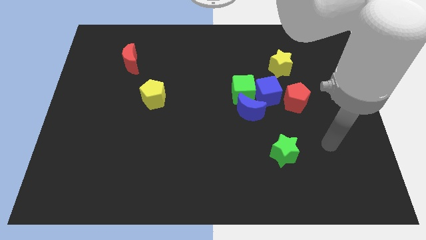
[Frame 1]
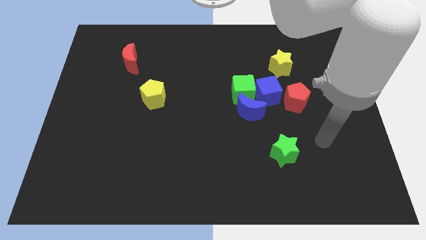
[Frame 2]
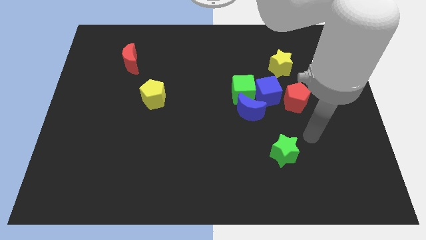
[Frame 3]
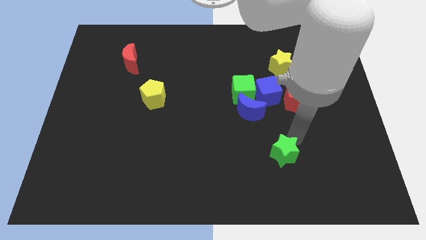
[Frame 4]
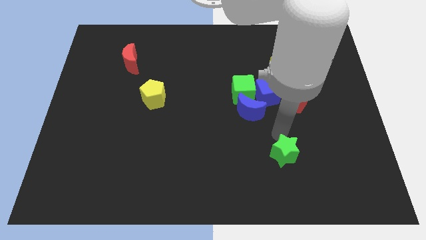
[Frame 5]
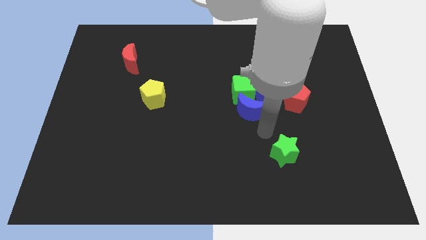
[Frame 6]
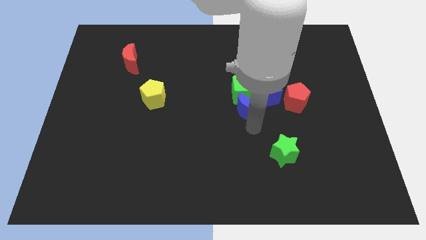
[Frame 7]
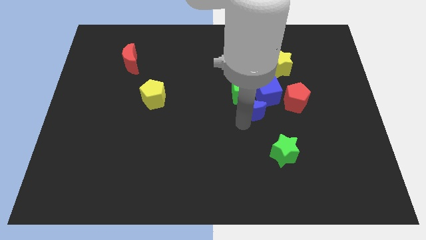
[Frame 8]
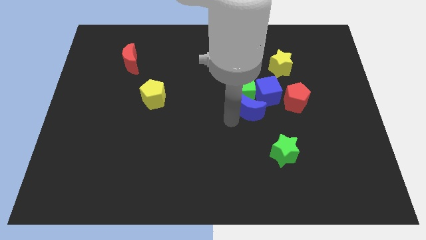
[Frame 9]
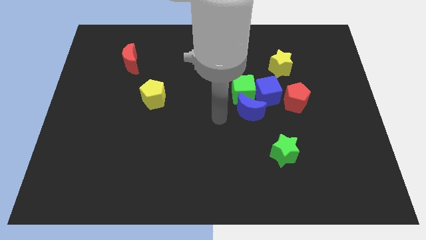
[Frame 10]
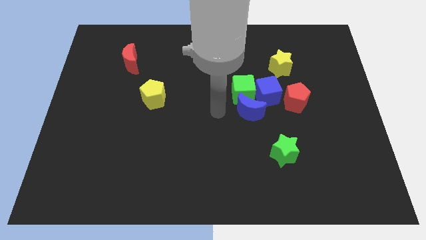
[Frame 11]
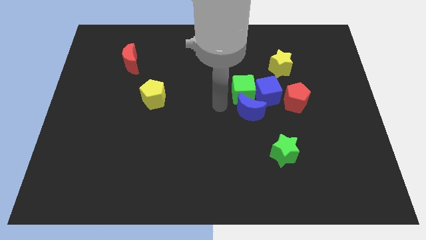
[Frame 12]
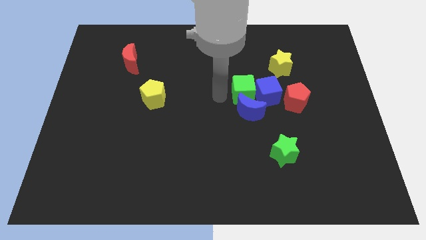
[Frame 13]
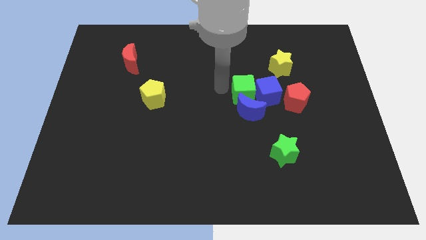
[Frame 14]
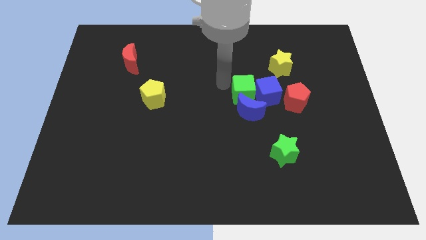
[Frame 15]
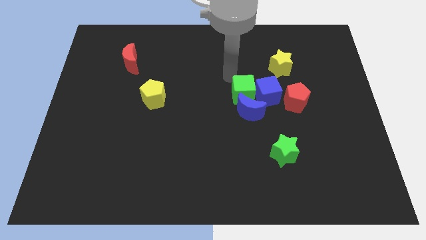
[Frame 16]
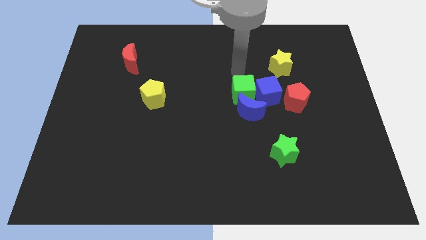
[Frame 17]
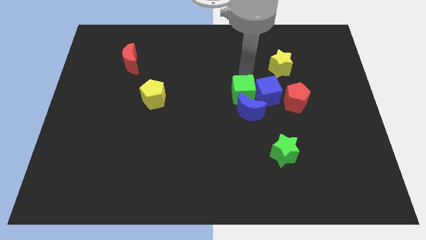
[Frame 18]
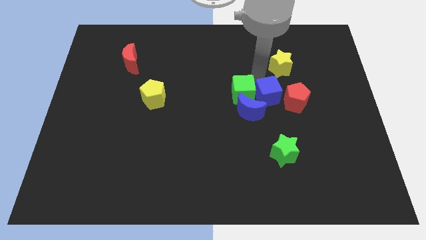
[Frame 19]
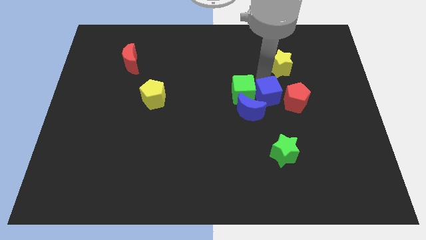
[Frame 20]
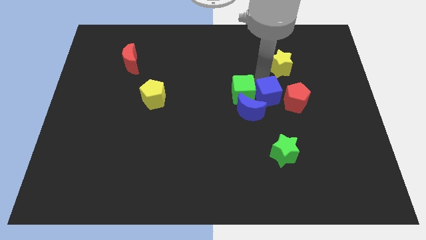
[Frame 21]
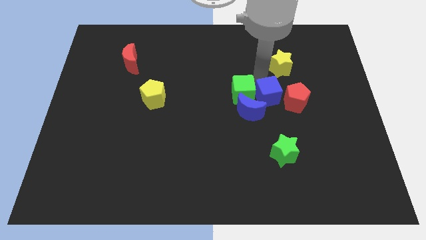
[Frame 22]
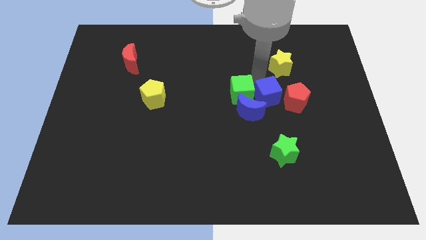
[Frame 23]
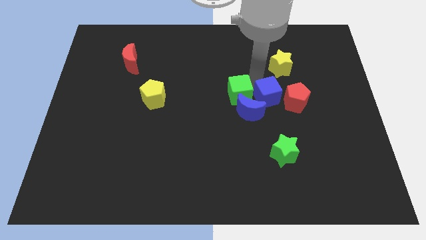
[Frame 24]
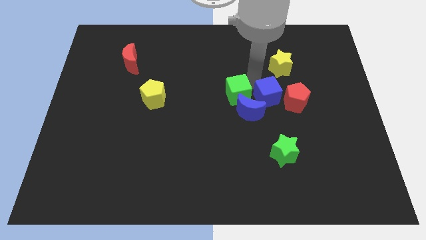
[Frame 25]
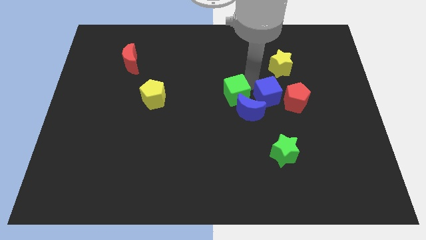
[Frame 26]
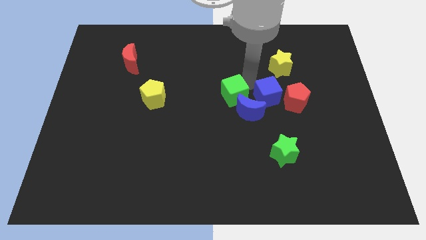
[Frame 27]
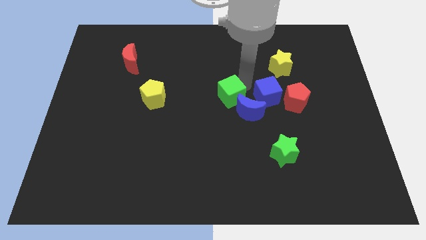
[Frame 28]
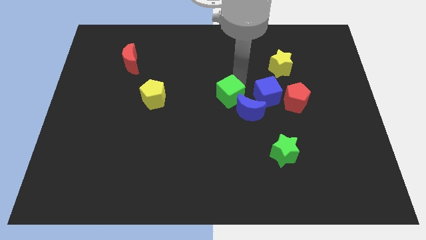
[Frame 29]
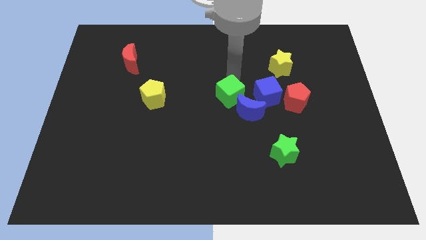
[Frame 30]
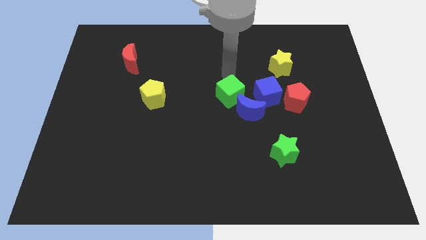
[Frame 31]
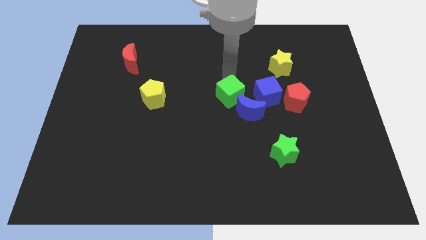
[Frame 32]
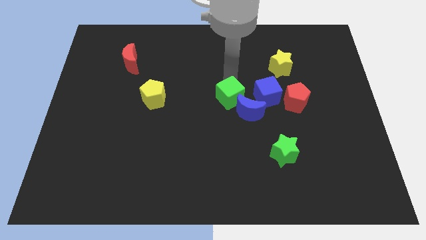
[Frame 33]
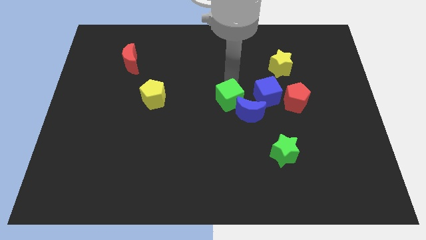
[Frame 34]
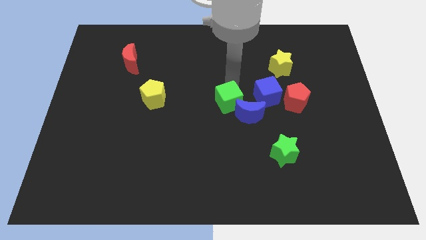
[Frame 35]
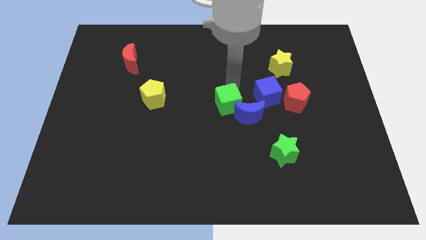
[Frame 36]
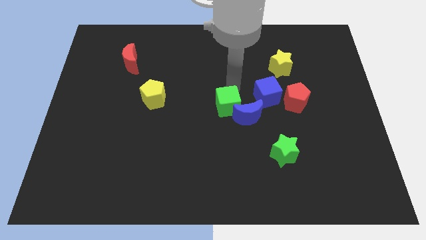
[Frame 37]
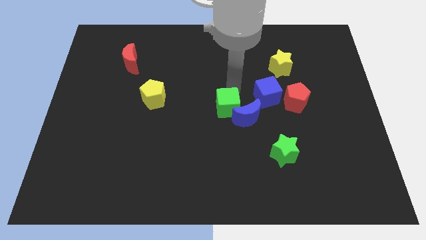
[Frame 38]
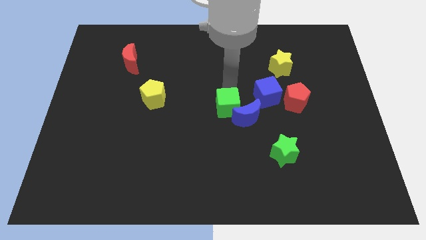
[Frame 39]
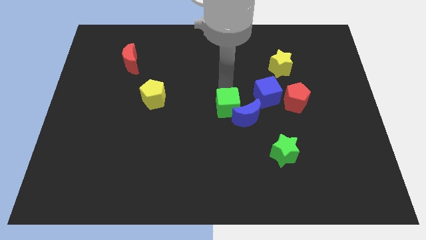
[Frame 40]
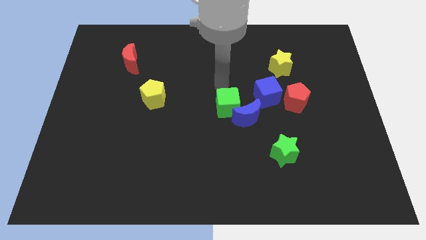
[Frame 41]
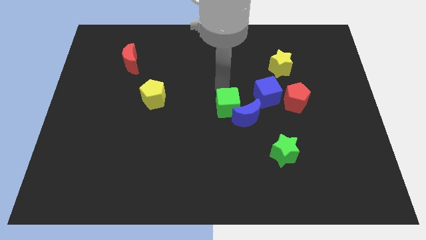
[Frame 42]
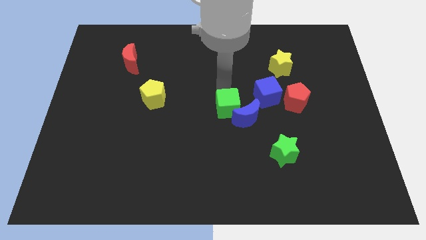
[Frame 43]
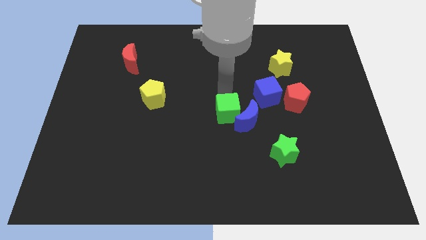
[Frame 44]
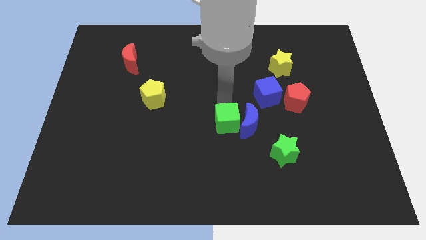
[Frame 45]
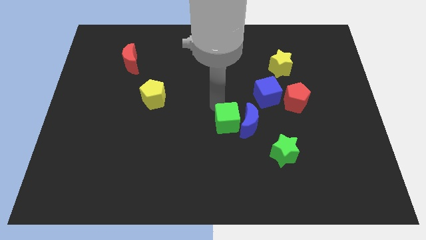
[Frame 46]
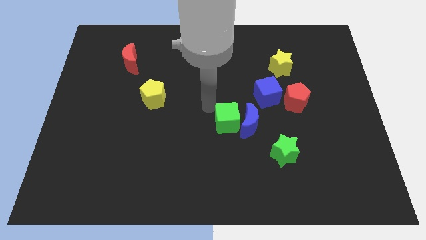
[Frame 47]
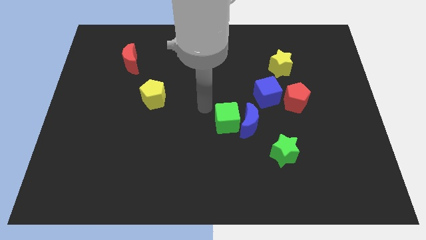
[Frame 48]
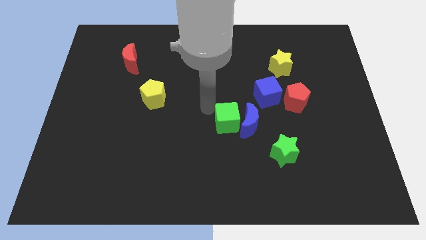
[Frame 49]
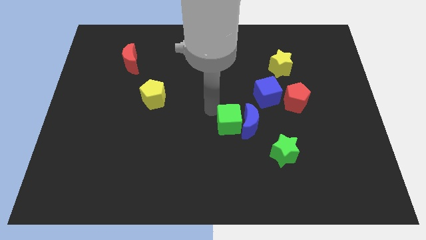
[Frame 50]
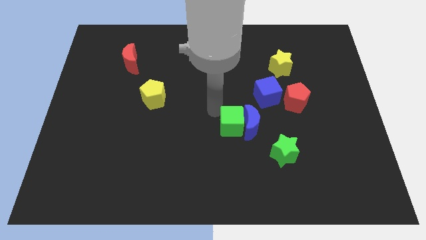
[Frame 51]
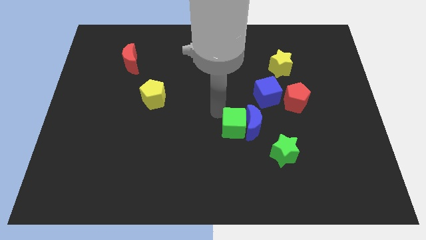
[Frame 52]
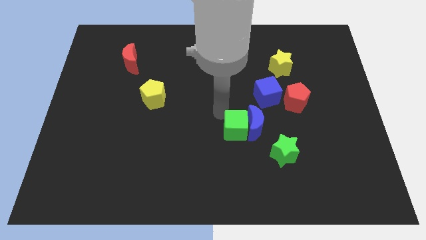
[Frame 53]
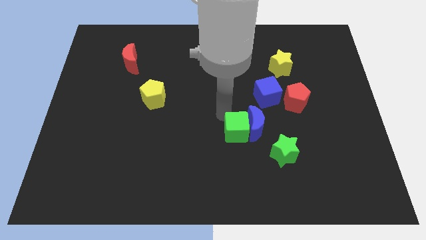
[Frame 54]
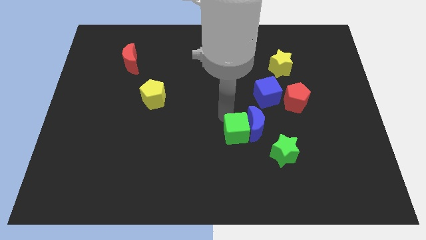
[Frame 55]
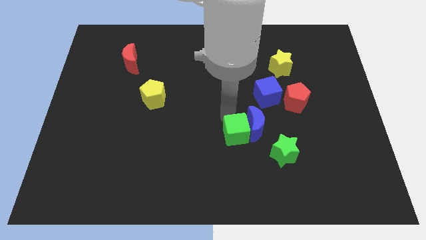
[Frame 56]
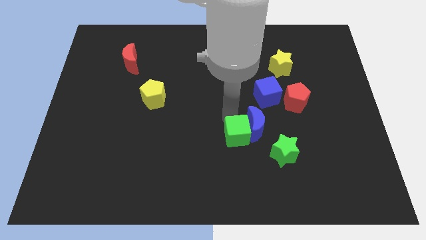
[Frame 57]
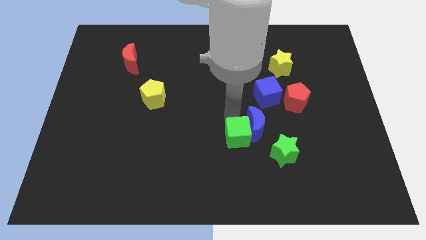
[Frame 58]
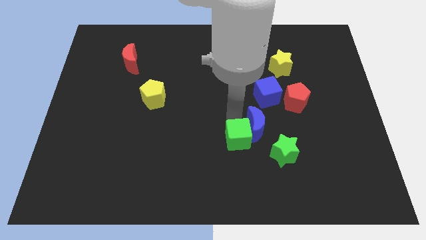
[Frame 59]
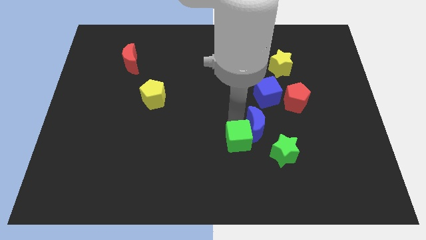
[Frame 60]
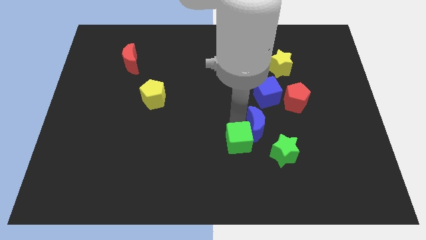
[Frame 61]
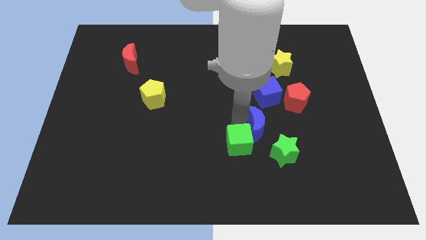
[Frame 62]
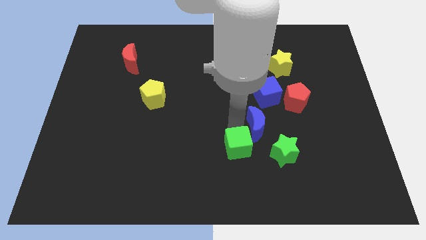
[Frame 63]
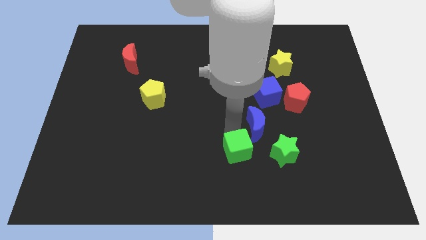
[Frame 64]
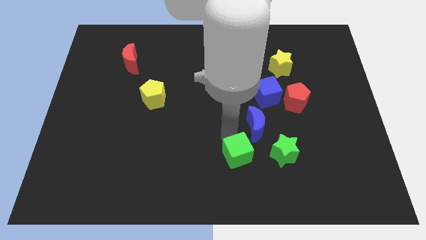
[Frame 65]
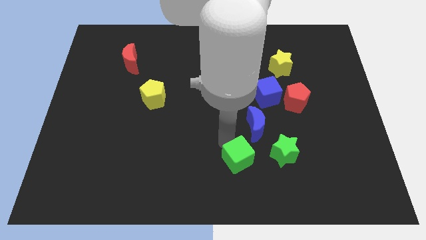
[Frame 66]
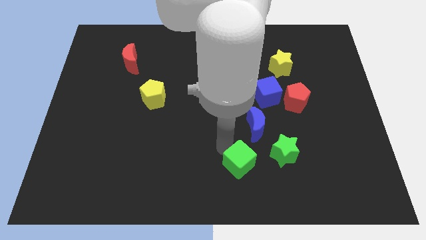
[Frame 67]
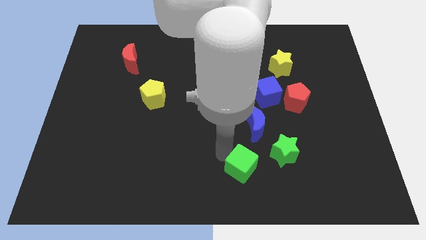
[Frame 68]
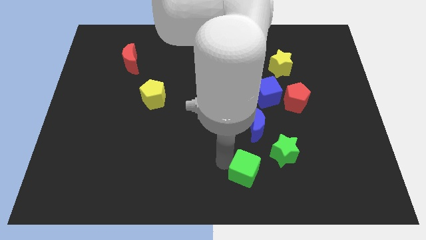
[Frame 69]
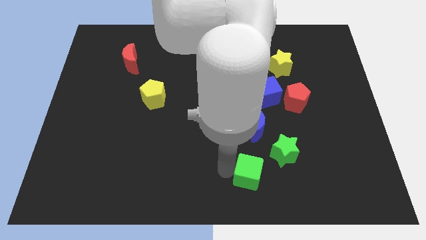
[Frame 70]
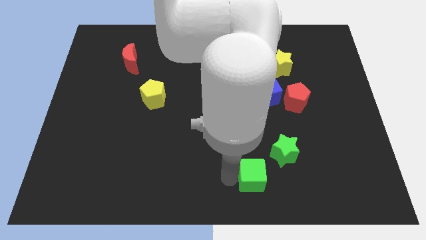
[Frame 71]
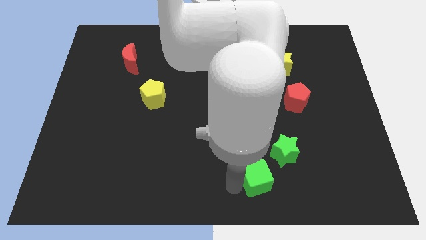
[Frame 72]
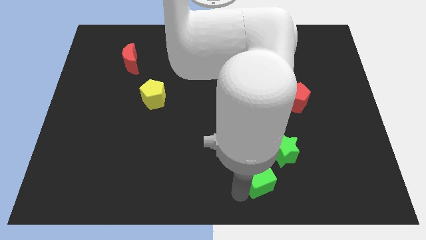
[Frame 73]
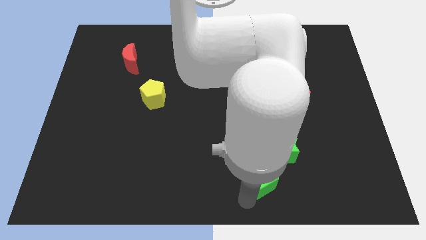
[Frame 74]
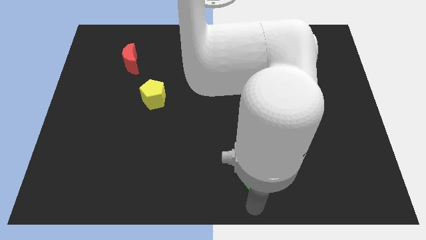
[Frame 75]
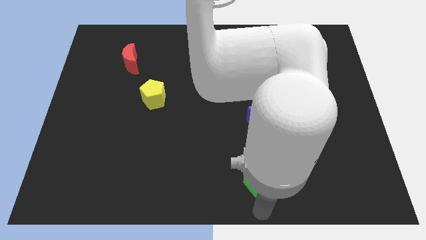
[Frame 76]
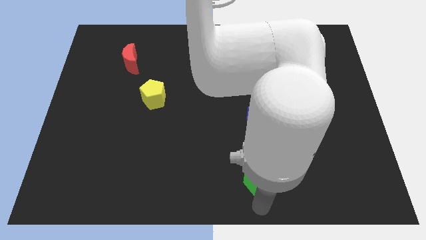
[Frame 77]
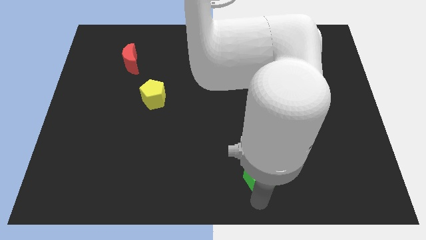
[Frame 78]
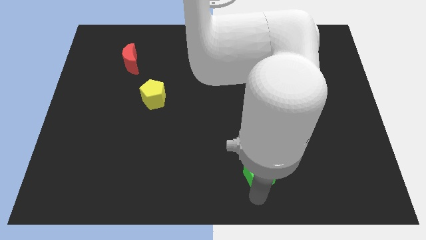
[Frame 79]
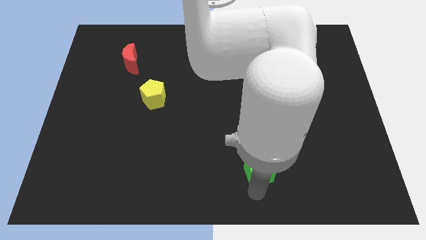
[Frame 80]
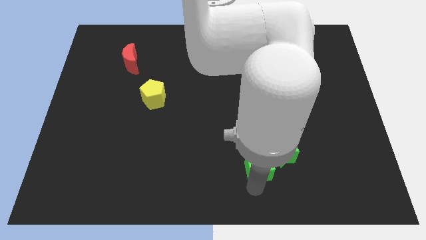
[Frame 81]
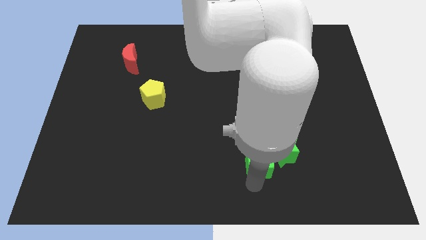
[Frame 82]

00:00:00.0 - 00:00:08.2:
push the green cube towards the green star
